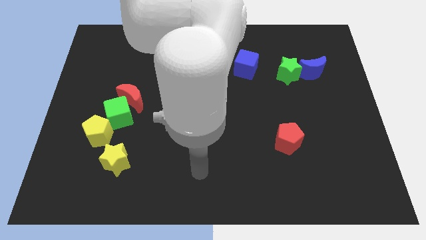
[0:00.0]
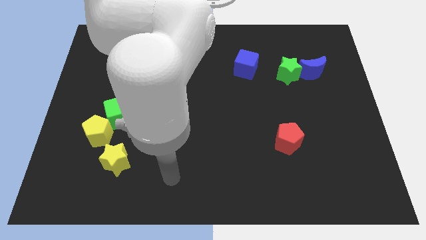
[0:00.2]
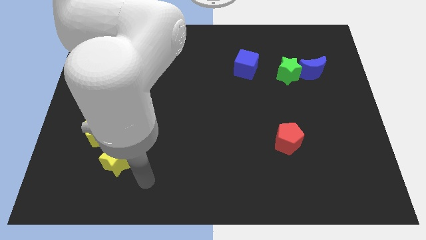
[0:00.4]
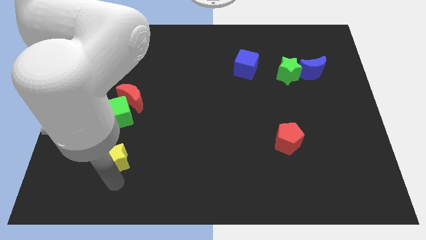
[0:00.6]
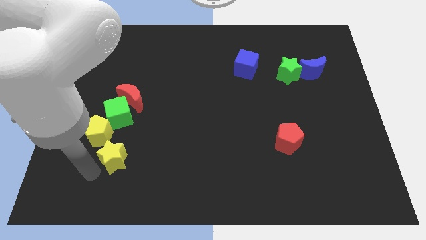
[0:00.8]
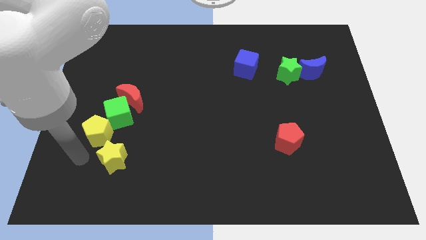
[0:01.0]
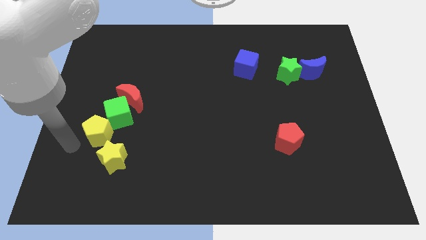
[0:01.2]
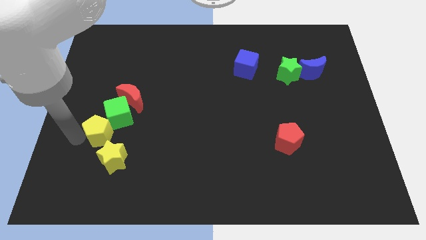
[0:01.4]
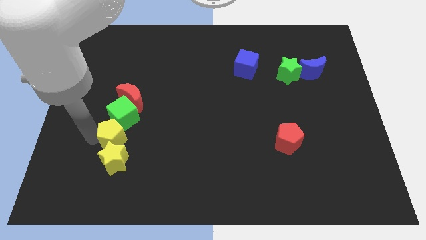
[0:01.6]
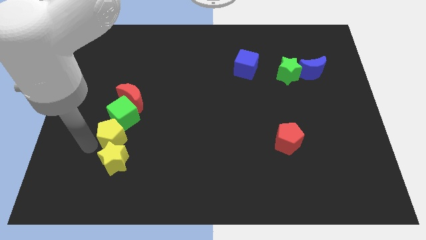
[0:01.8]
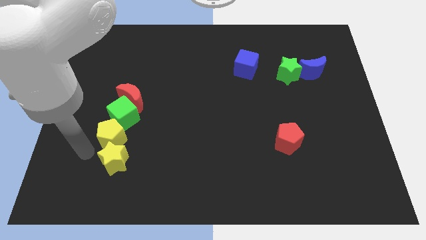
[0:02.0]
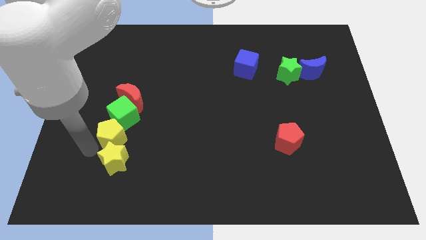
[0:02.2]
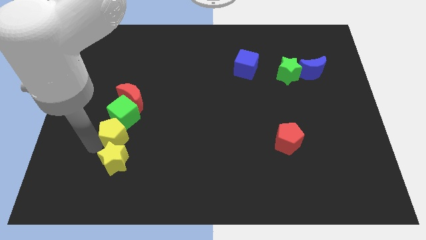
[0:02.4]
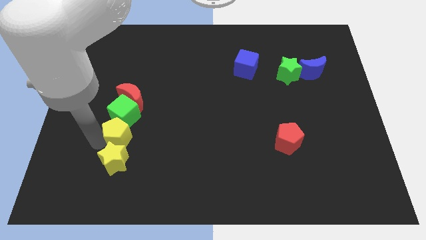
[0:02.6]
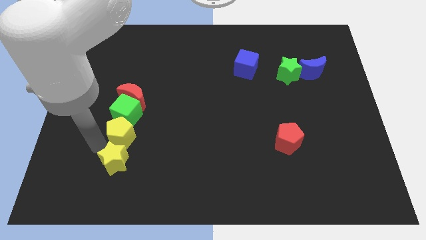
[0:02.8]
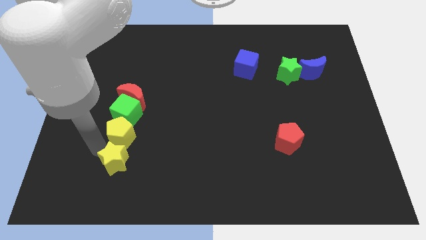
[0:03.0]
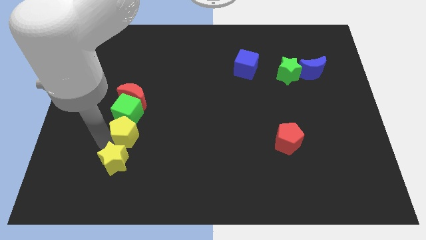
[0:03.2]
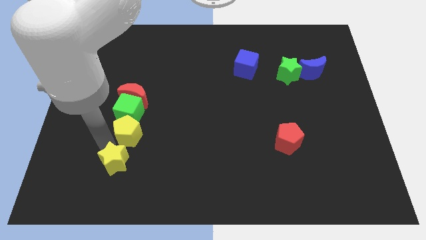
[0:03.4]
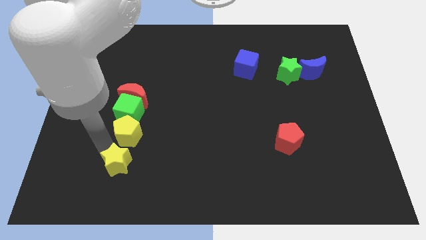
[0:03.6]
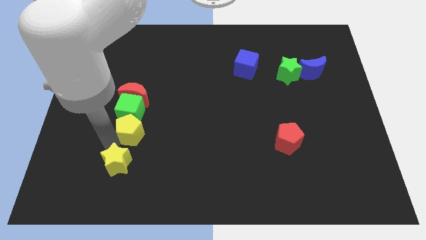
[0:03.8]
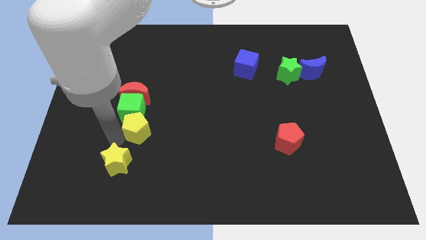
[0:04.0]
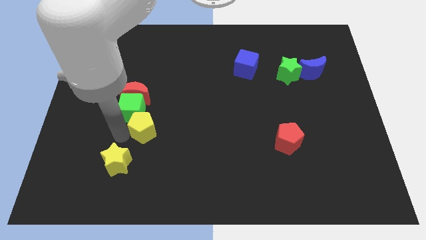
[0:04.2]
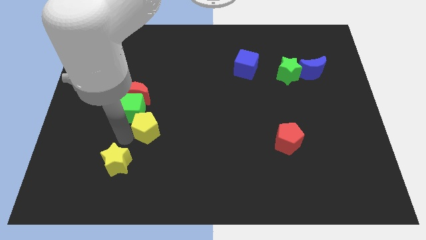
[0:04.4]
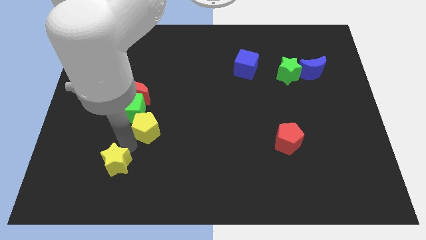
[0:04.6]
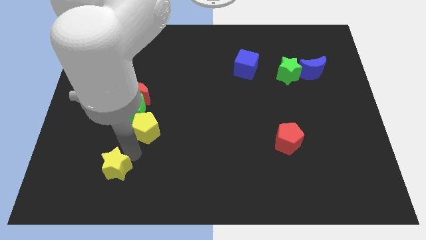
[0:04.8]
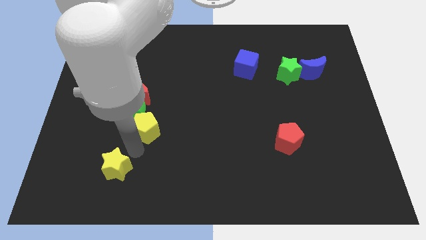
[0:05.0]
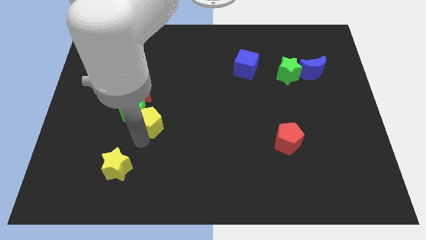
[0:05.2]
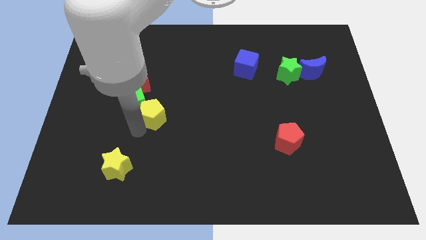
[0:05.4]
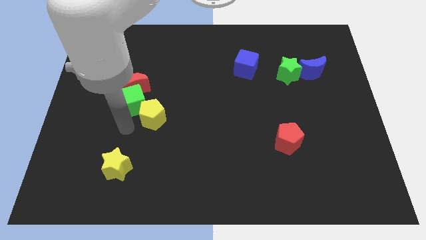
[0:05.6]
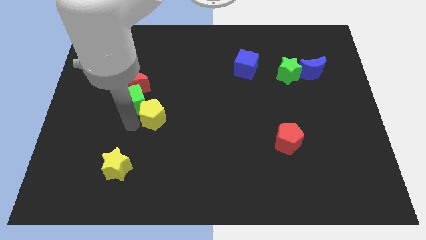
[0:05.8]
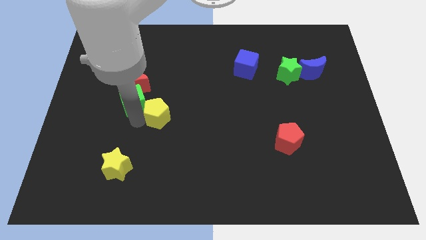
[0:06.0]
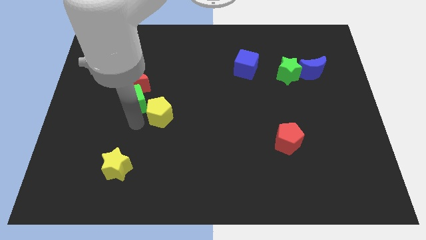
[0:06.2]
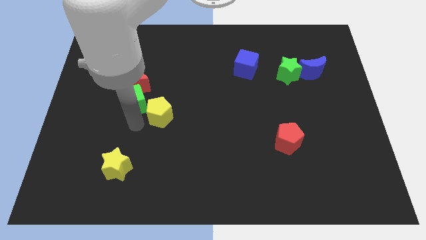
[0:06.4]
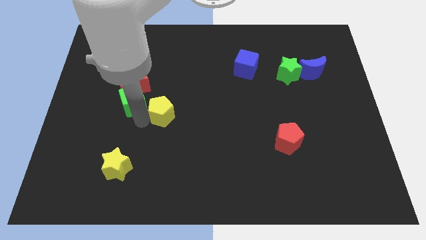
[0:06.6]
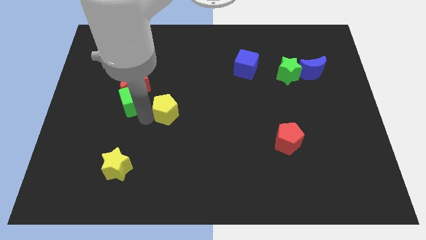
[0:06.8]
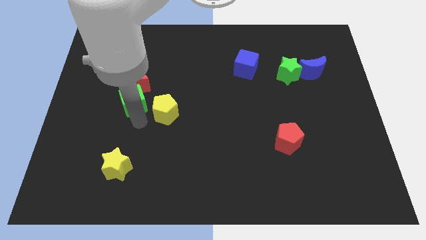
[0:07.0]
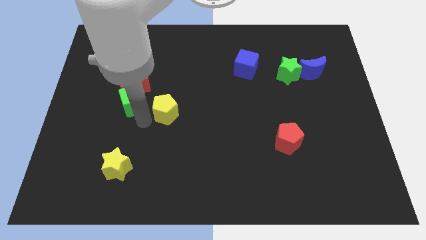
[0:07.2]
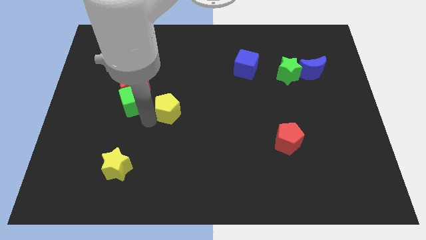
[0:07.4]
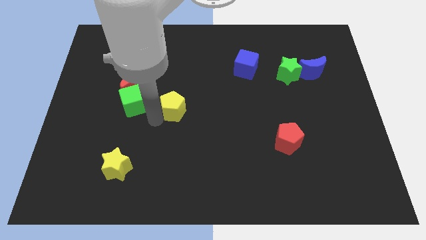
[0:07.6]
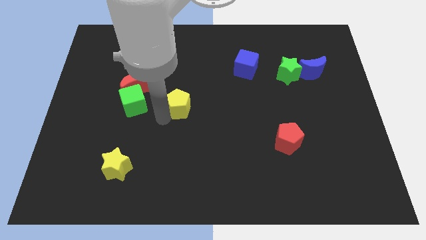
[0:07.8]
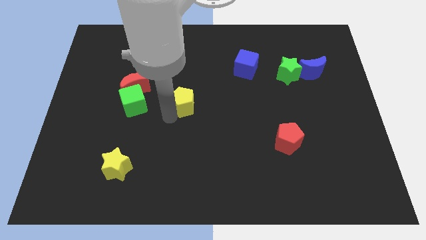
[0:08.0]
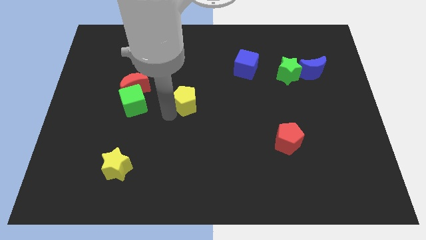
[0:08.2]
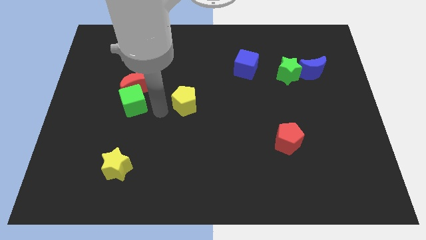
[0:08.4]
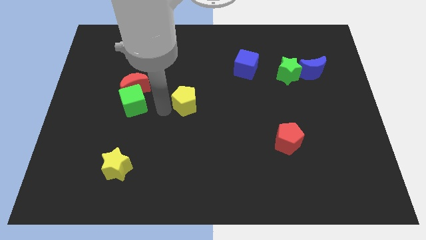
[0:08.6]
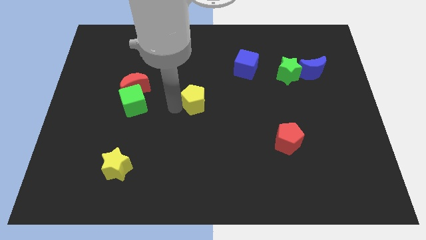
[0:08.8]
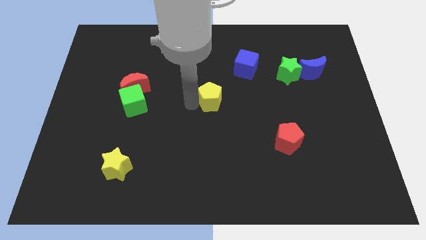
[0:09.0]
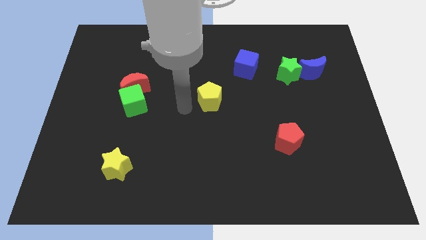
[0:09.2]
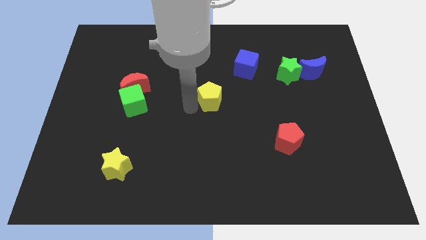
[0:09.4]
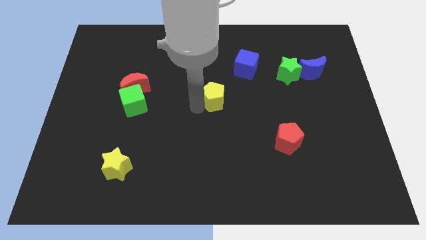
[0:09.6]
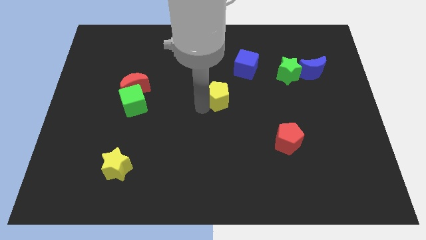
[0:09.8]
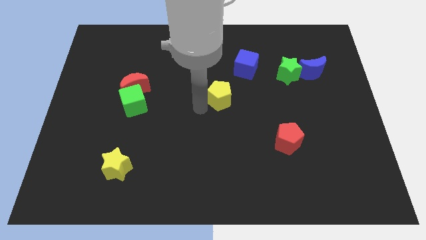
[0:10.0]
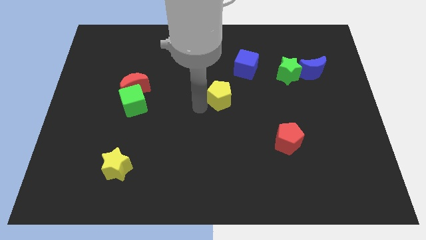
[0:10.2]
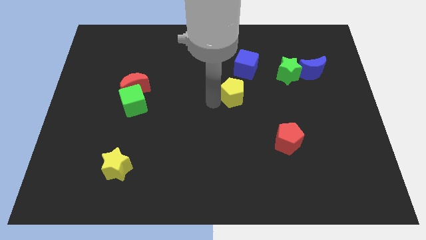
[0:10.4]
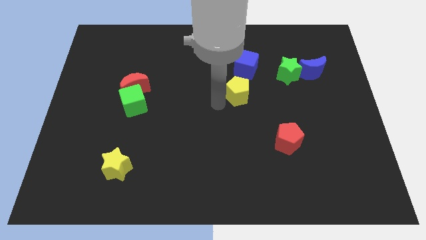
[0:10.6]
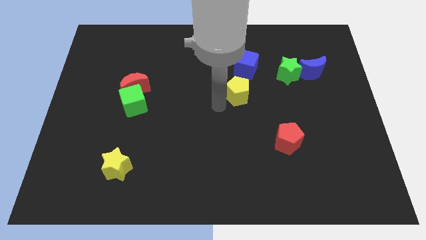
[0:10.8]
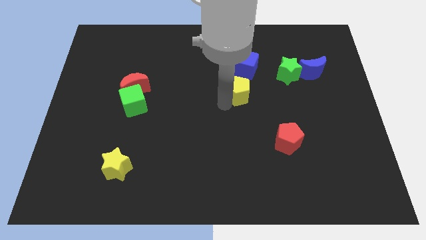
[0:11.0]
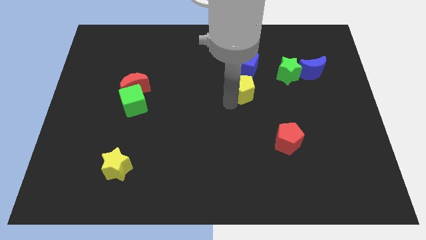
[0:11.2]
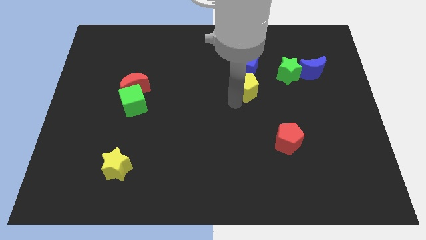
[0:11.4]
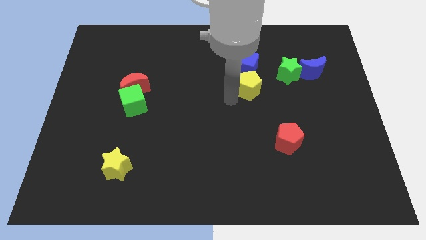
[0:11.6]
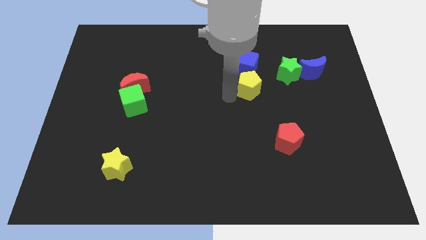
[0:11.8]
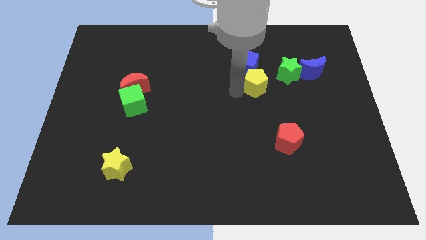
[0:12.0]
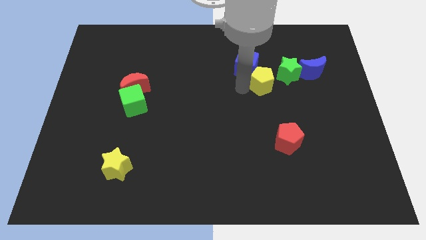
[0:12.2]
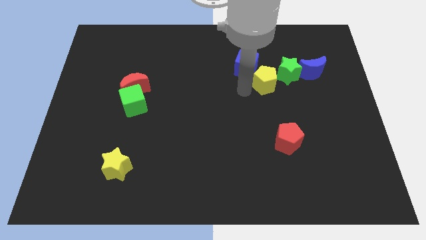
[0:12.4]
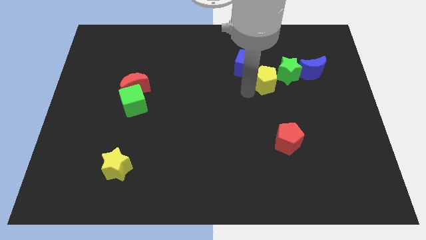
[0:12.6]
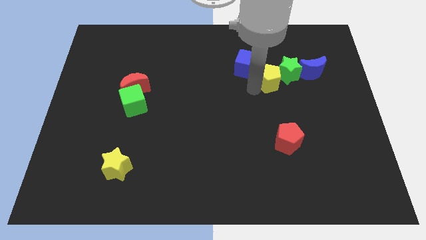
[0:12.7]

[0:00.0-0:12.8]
push the yellow pentagon close to the green star
